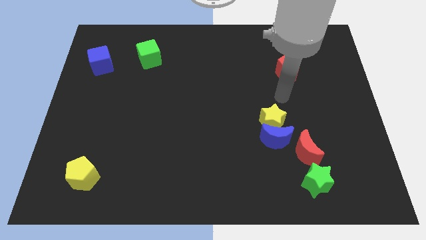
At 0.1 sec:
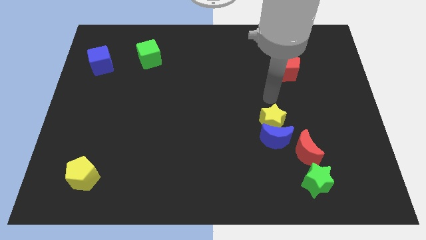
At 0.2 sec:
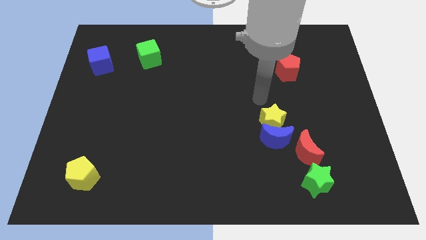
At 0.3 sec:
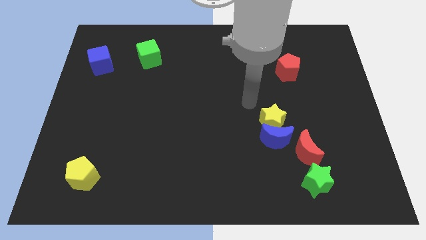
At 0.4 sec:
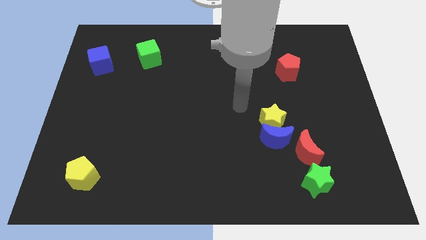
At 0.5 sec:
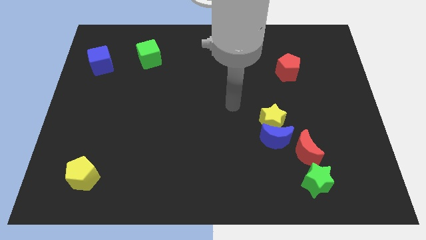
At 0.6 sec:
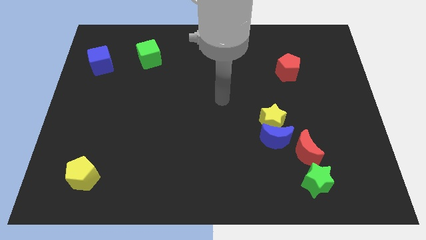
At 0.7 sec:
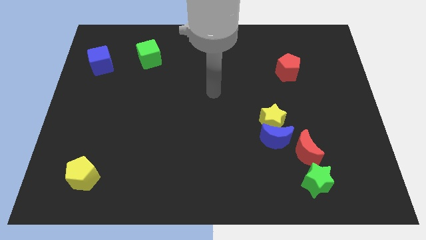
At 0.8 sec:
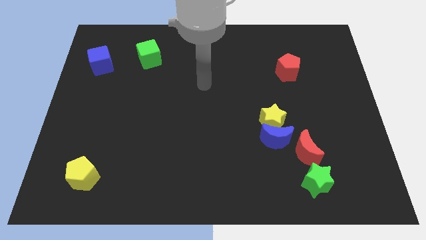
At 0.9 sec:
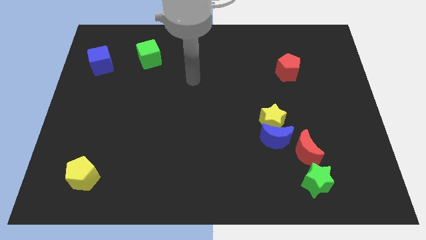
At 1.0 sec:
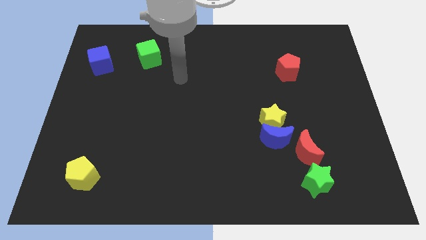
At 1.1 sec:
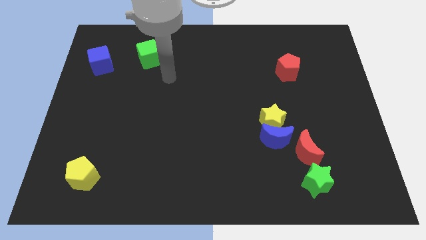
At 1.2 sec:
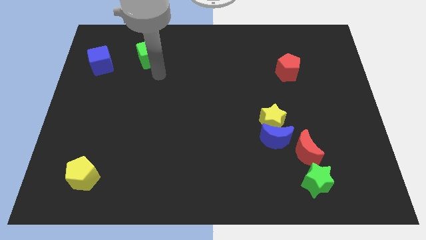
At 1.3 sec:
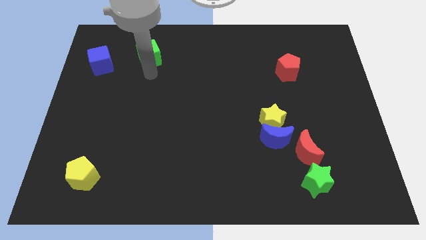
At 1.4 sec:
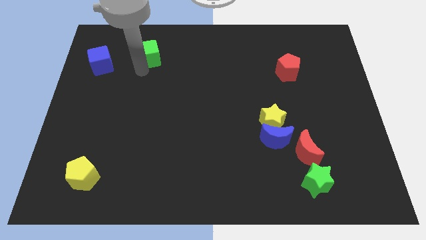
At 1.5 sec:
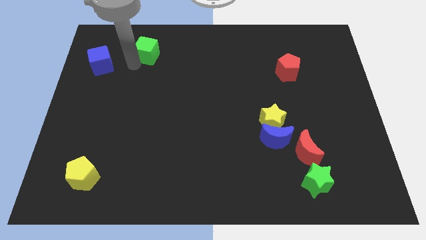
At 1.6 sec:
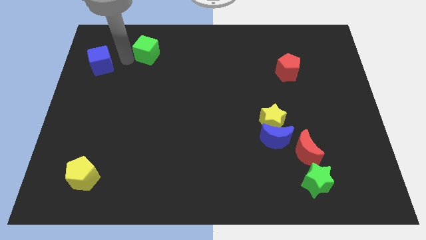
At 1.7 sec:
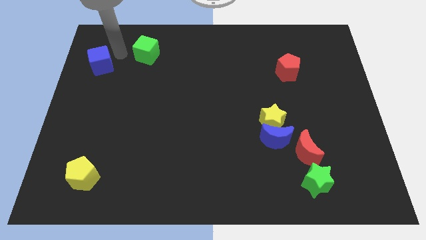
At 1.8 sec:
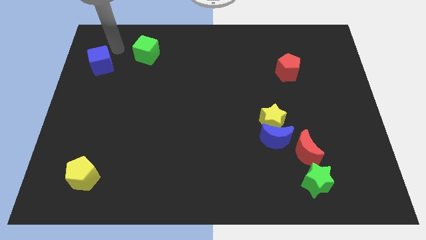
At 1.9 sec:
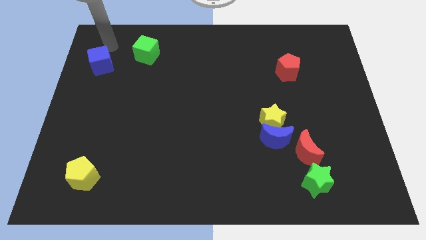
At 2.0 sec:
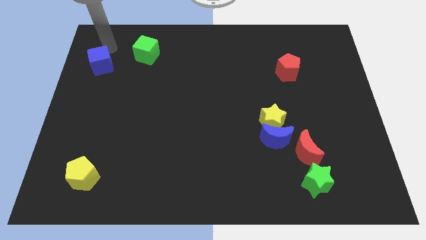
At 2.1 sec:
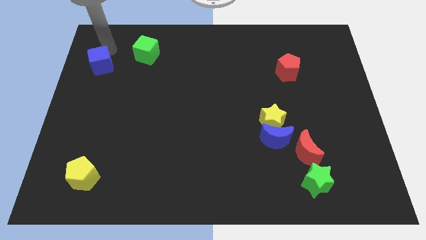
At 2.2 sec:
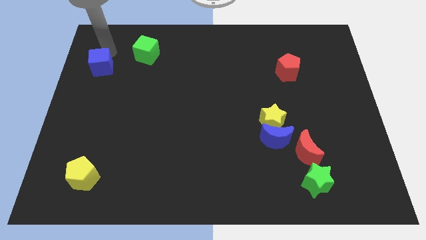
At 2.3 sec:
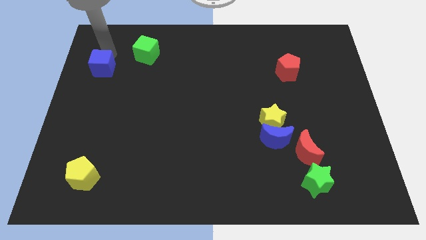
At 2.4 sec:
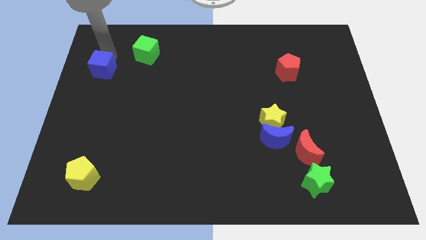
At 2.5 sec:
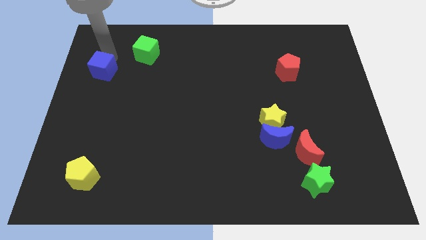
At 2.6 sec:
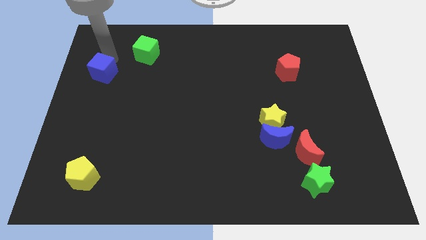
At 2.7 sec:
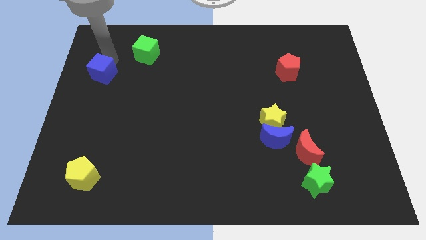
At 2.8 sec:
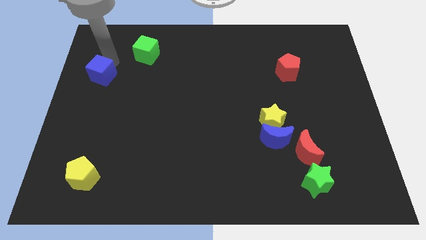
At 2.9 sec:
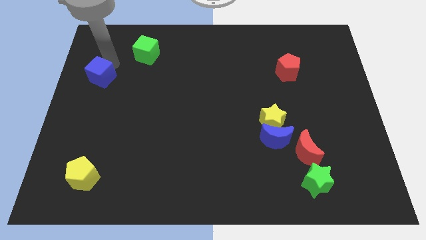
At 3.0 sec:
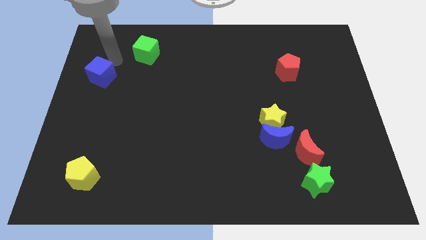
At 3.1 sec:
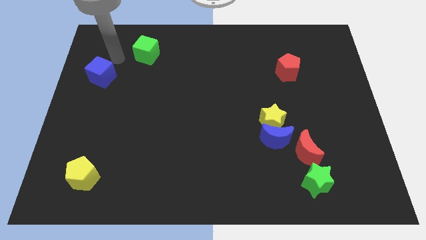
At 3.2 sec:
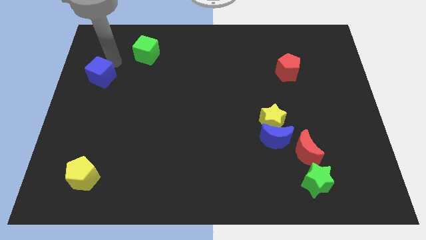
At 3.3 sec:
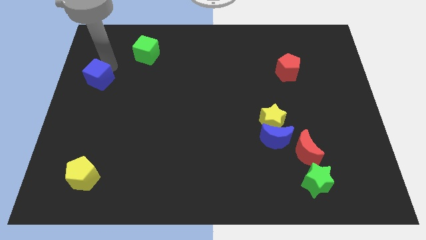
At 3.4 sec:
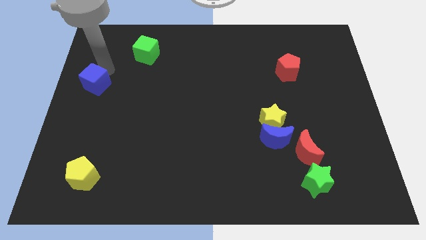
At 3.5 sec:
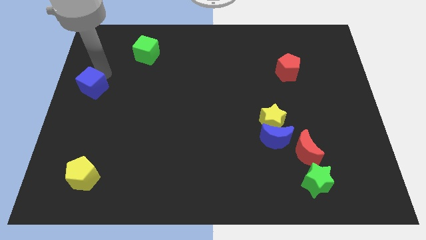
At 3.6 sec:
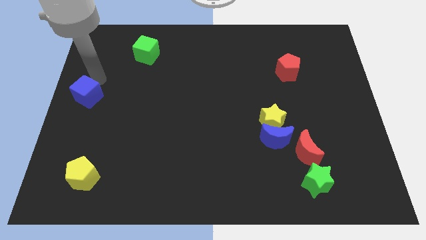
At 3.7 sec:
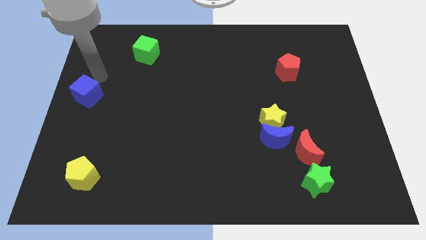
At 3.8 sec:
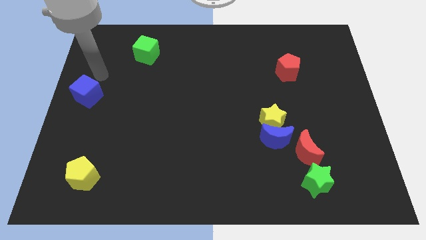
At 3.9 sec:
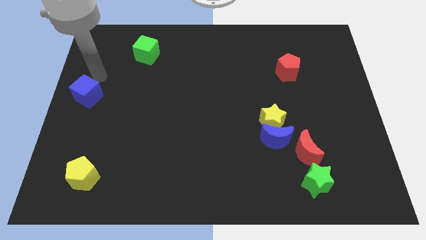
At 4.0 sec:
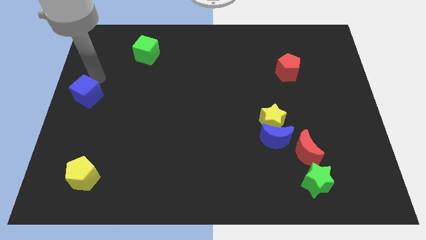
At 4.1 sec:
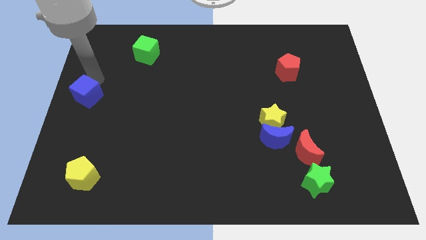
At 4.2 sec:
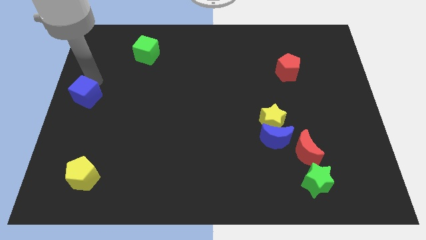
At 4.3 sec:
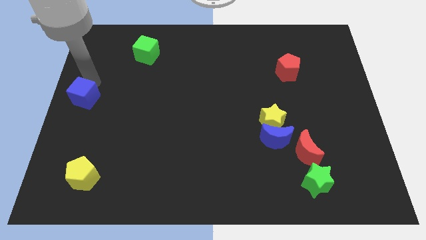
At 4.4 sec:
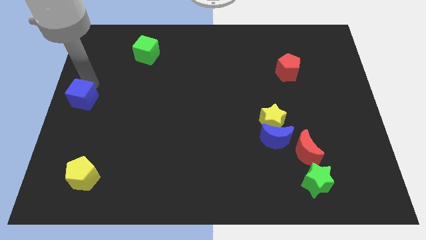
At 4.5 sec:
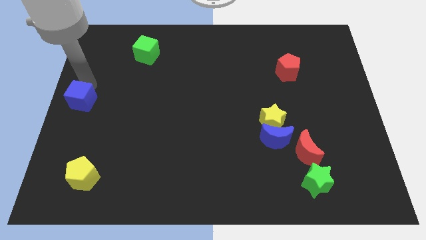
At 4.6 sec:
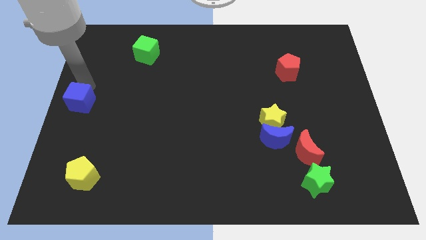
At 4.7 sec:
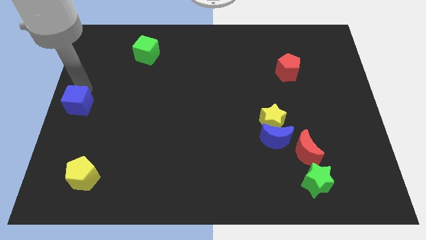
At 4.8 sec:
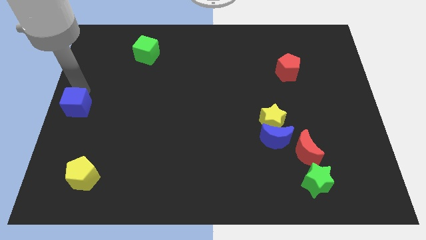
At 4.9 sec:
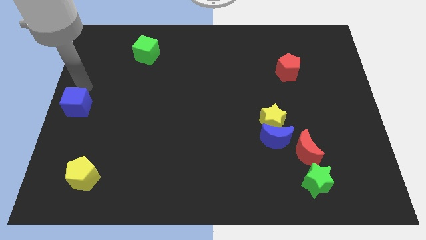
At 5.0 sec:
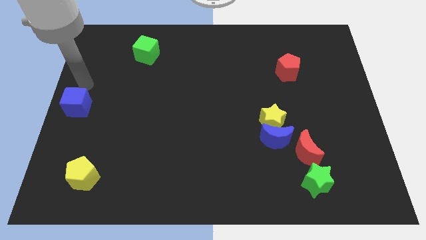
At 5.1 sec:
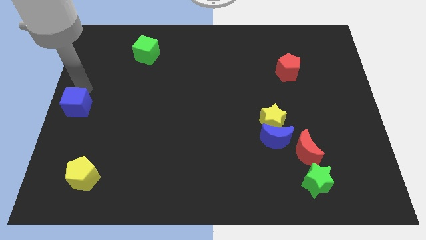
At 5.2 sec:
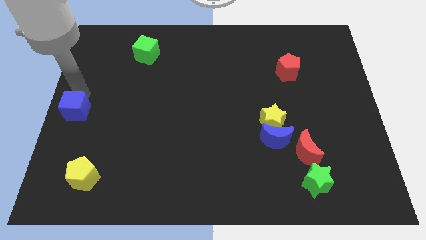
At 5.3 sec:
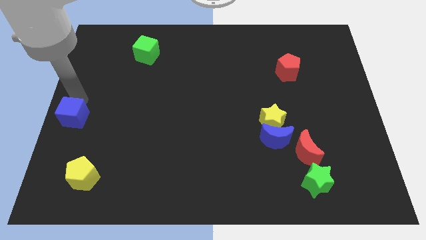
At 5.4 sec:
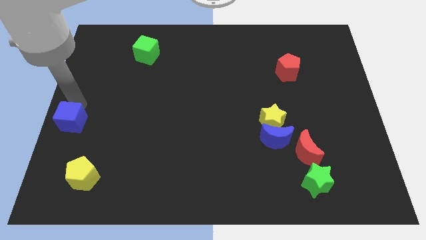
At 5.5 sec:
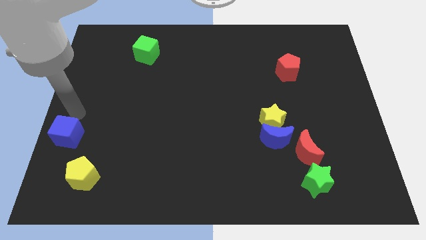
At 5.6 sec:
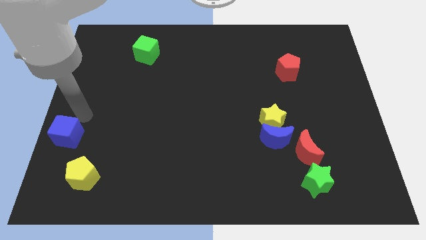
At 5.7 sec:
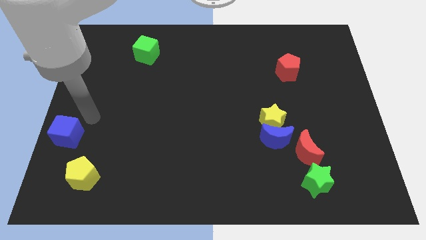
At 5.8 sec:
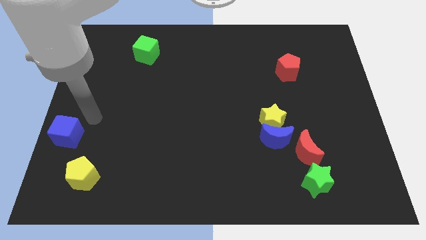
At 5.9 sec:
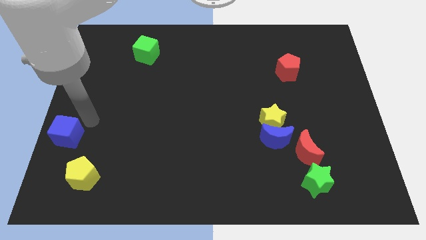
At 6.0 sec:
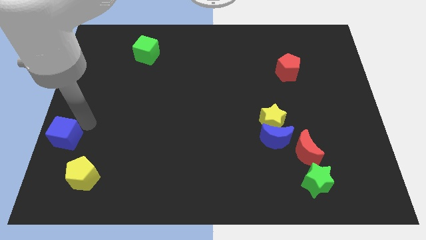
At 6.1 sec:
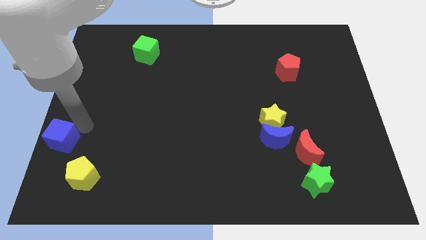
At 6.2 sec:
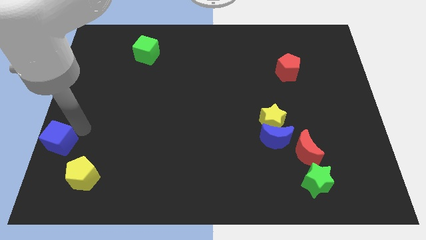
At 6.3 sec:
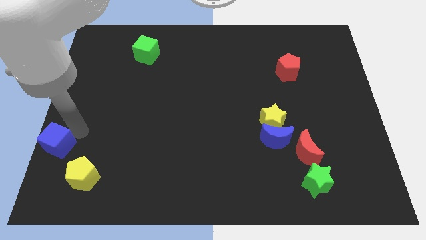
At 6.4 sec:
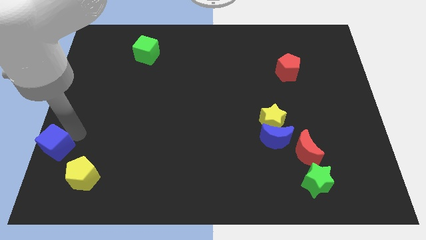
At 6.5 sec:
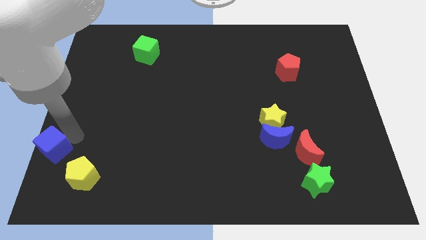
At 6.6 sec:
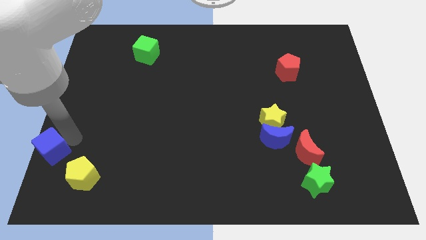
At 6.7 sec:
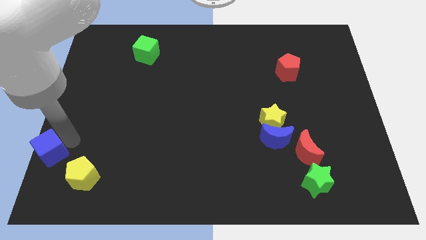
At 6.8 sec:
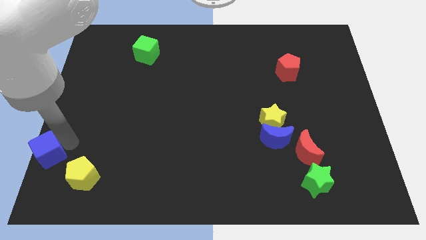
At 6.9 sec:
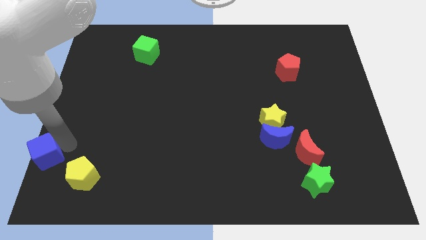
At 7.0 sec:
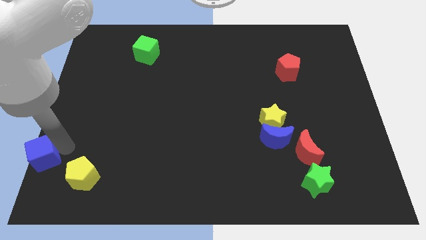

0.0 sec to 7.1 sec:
put the blue cube to the bottom left of the board
